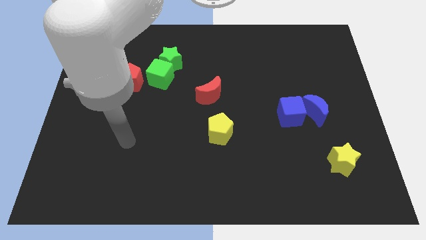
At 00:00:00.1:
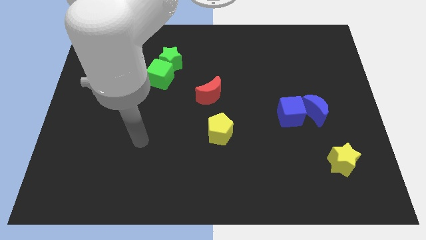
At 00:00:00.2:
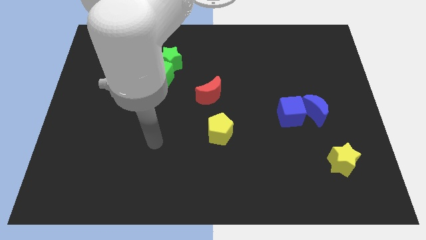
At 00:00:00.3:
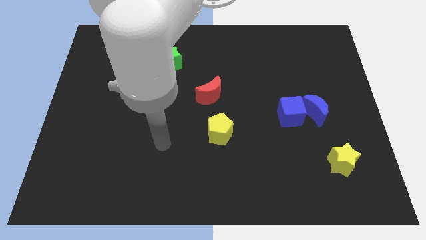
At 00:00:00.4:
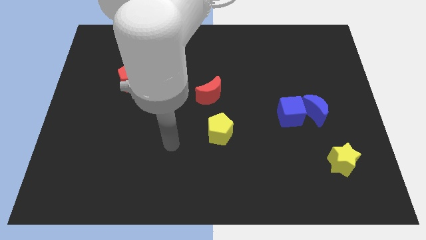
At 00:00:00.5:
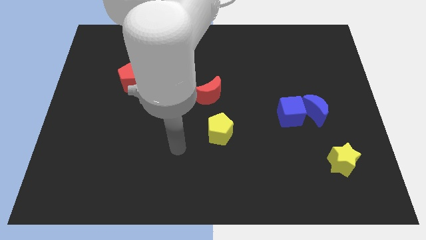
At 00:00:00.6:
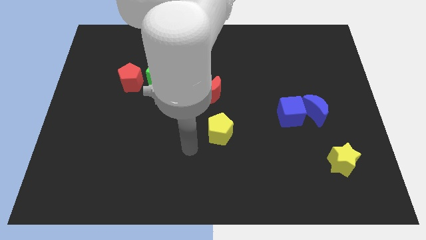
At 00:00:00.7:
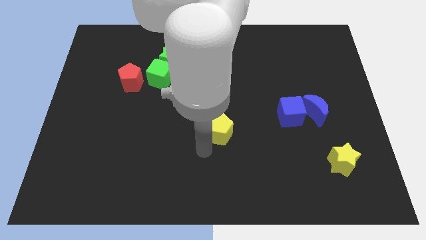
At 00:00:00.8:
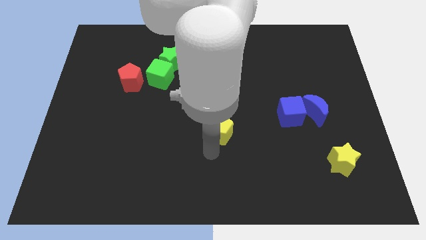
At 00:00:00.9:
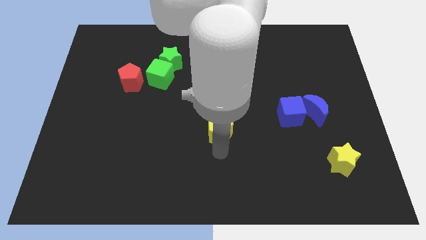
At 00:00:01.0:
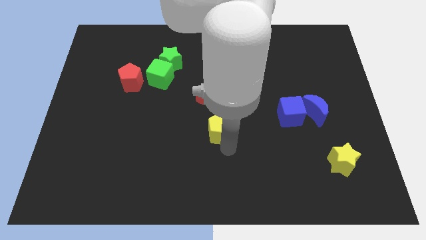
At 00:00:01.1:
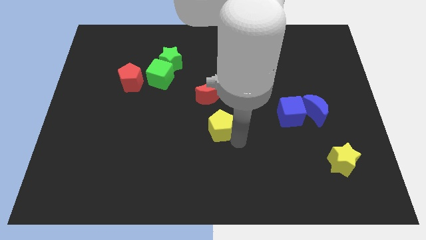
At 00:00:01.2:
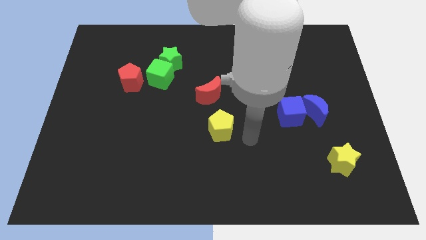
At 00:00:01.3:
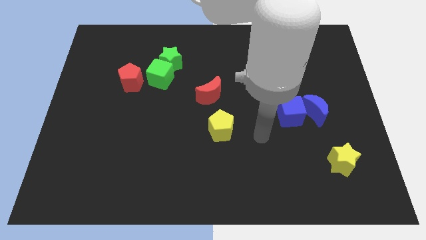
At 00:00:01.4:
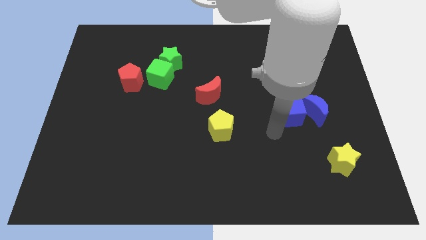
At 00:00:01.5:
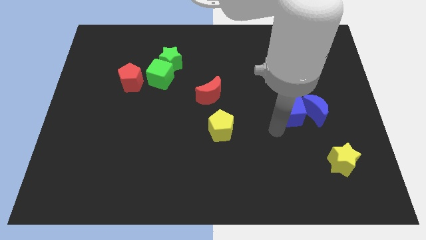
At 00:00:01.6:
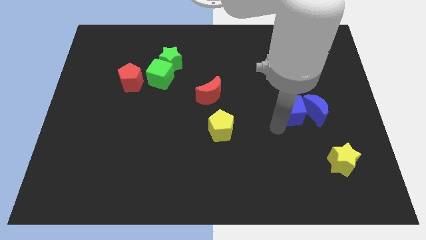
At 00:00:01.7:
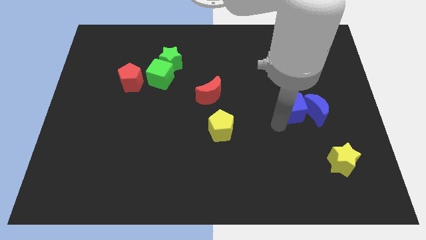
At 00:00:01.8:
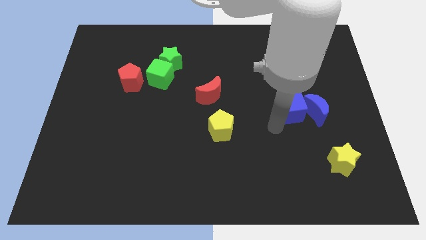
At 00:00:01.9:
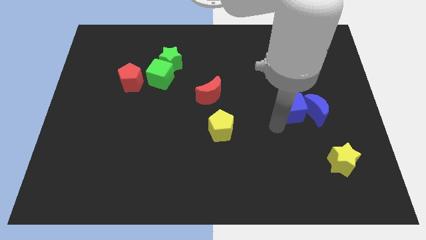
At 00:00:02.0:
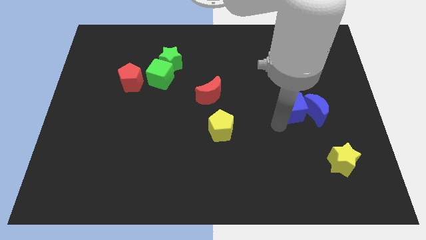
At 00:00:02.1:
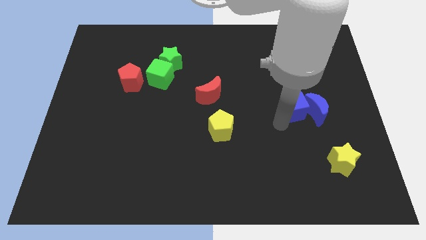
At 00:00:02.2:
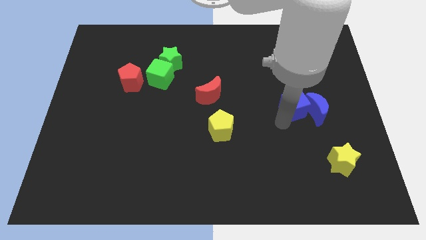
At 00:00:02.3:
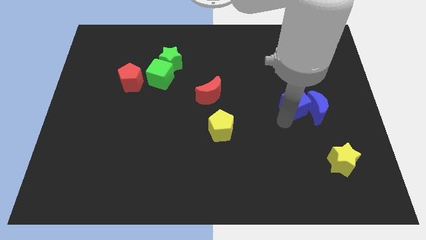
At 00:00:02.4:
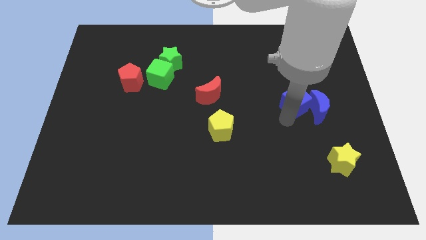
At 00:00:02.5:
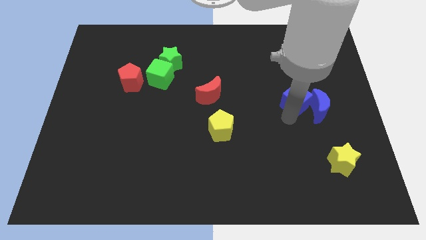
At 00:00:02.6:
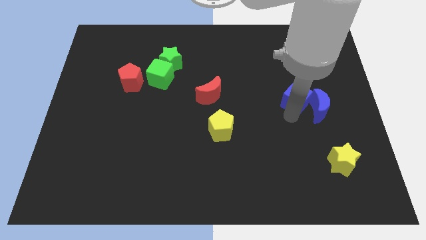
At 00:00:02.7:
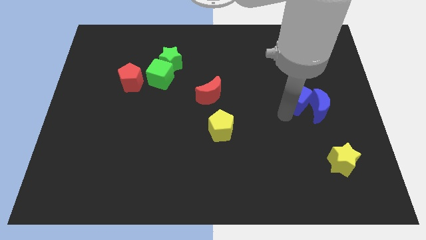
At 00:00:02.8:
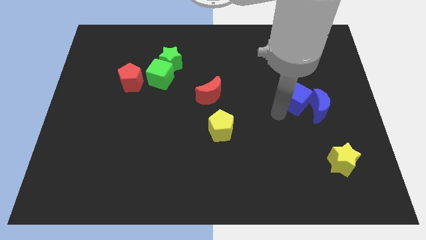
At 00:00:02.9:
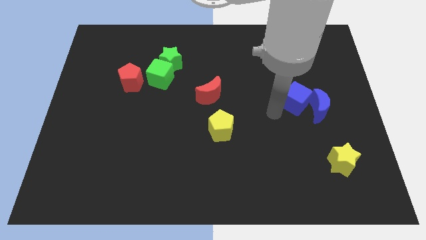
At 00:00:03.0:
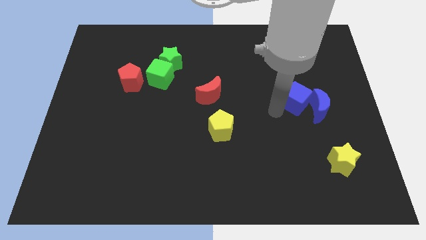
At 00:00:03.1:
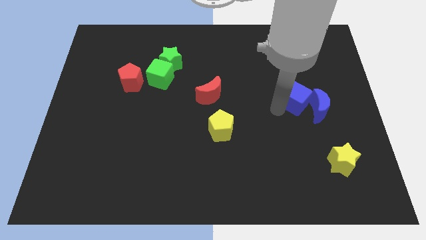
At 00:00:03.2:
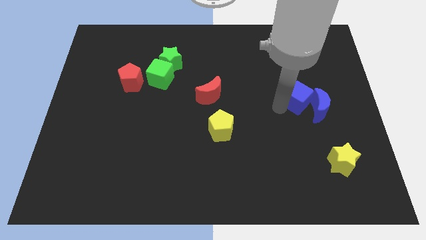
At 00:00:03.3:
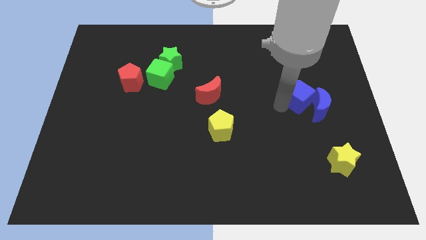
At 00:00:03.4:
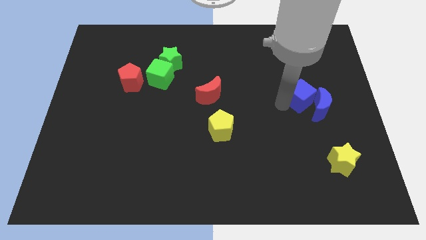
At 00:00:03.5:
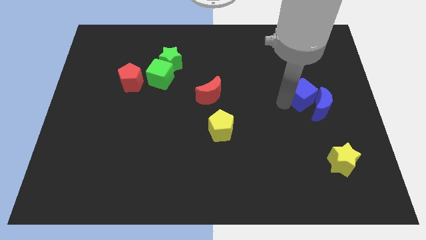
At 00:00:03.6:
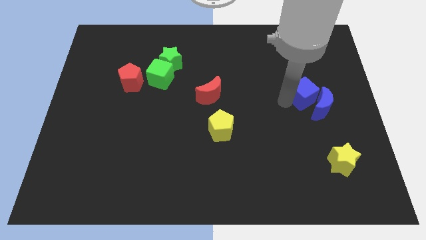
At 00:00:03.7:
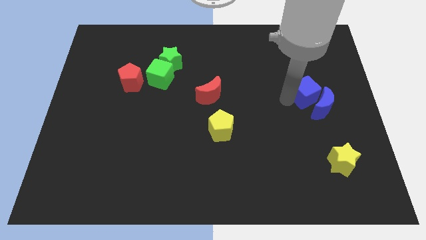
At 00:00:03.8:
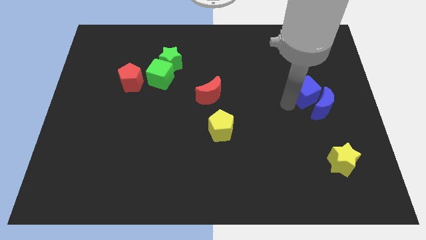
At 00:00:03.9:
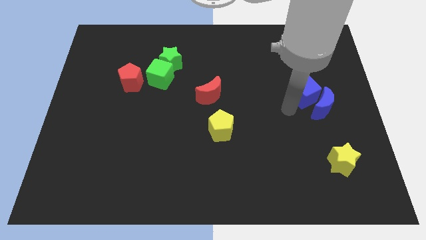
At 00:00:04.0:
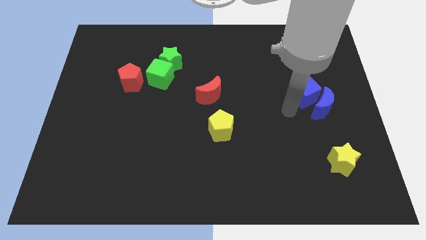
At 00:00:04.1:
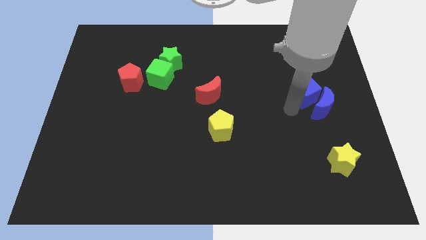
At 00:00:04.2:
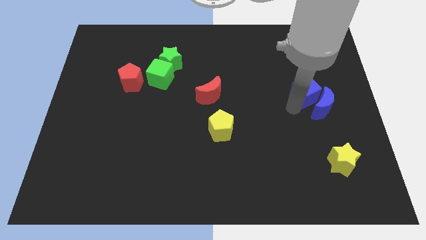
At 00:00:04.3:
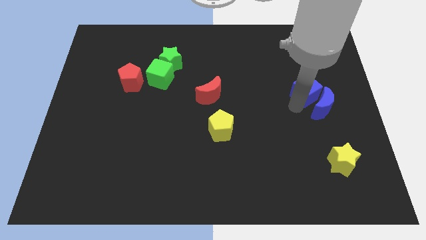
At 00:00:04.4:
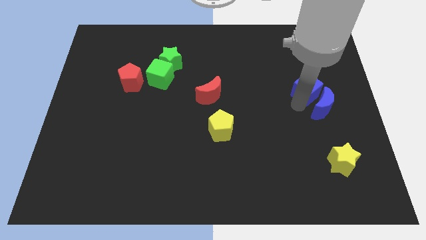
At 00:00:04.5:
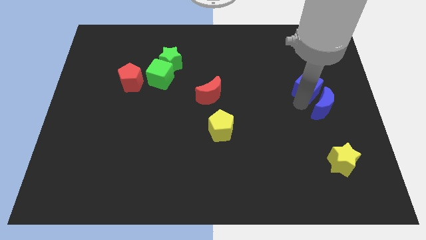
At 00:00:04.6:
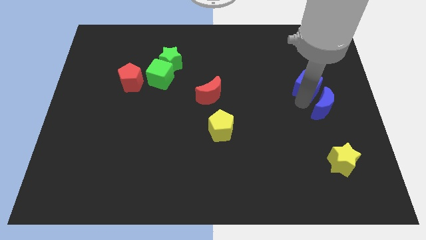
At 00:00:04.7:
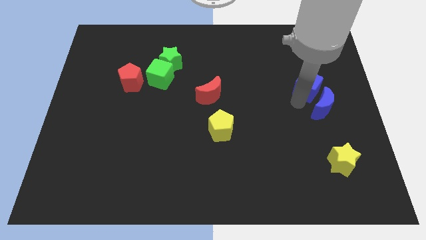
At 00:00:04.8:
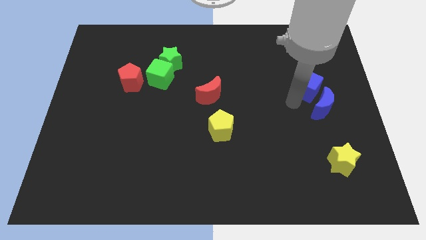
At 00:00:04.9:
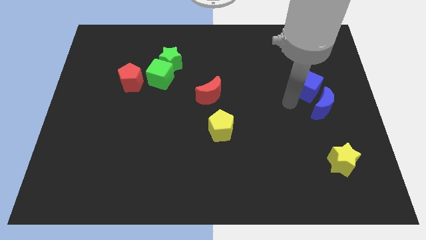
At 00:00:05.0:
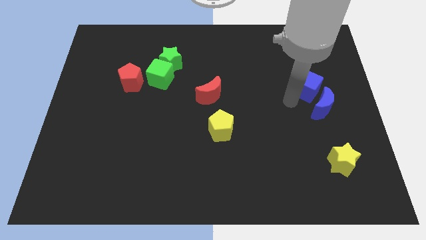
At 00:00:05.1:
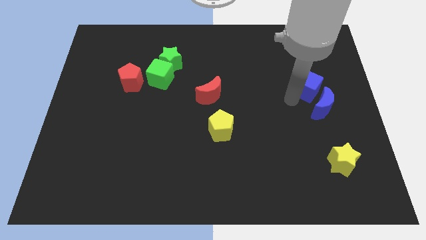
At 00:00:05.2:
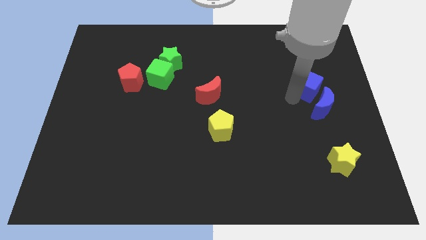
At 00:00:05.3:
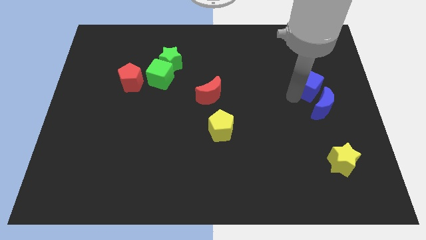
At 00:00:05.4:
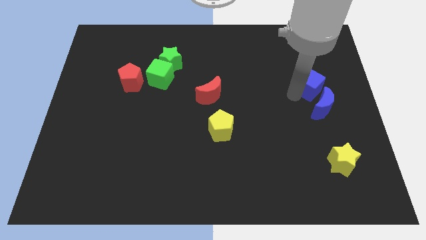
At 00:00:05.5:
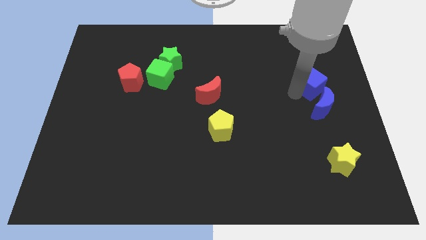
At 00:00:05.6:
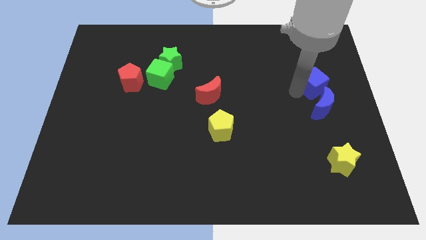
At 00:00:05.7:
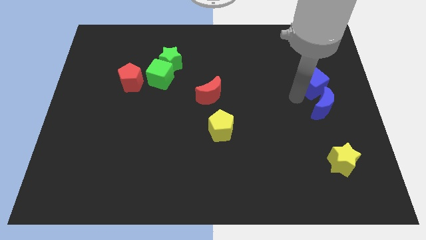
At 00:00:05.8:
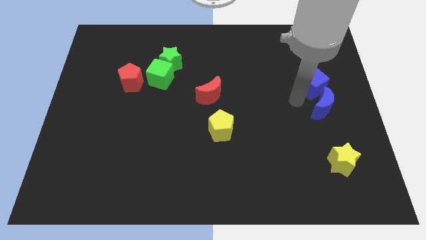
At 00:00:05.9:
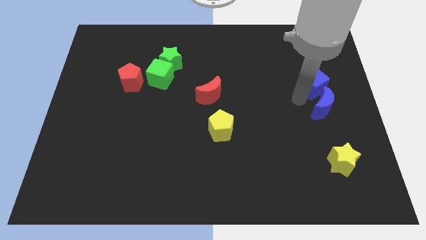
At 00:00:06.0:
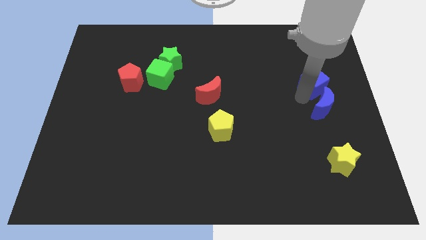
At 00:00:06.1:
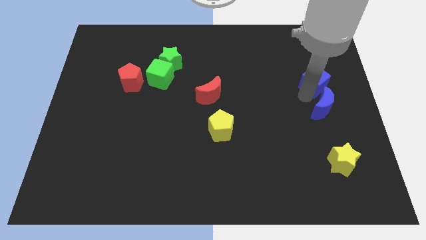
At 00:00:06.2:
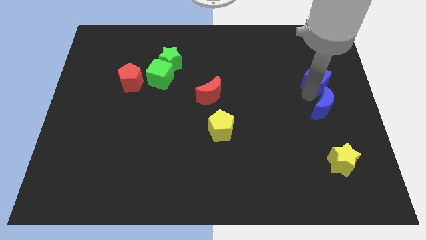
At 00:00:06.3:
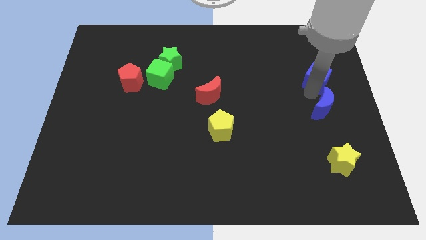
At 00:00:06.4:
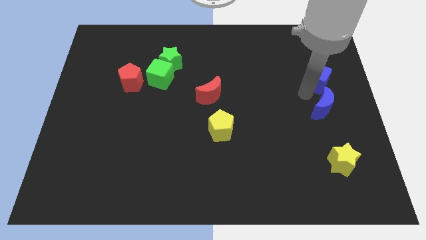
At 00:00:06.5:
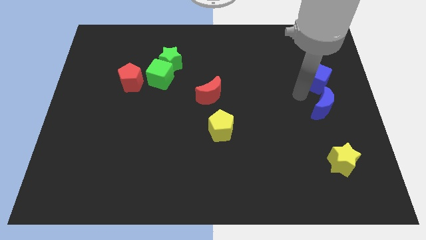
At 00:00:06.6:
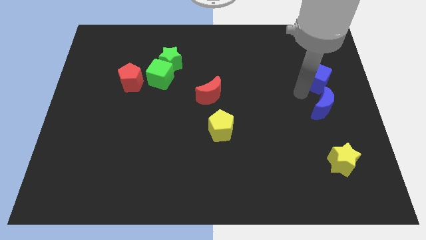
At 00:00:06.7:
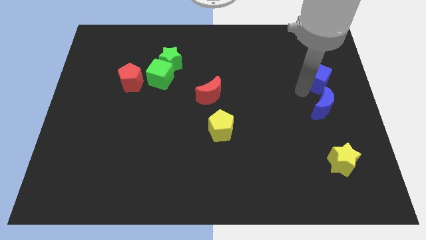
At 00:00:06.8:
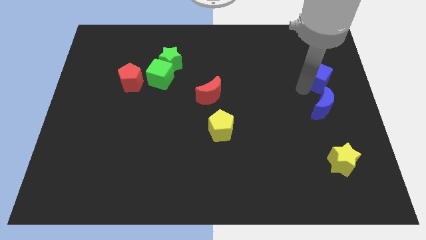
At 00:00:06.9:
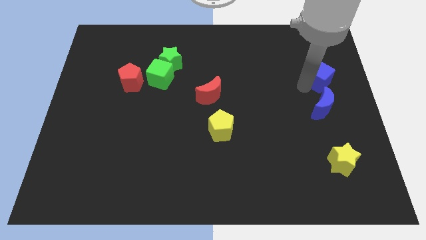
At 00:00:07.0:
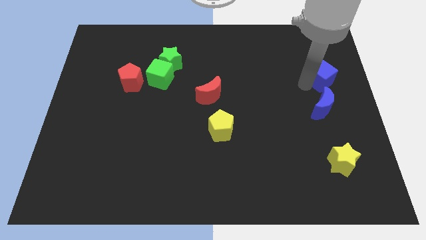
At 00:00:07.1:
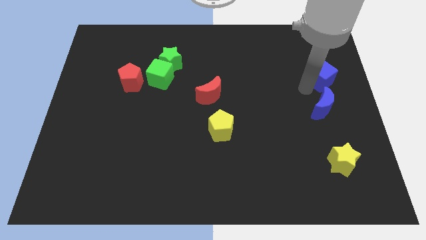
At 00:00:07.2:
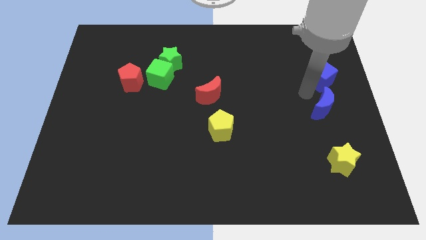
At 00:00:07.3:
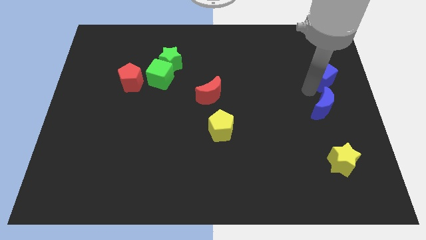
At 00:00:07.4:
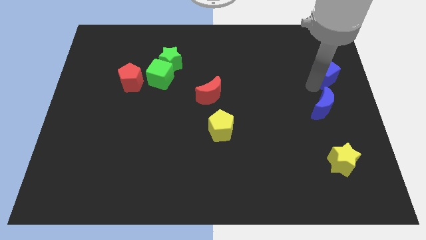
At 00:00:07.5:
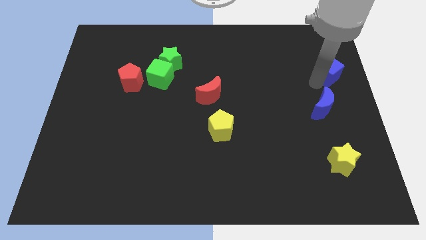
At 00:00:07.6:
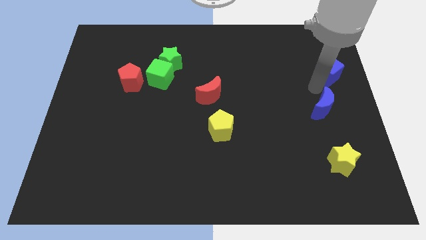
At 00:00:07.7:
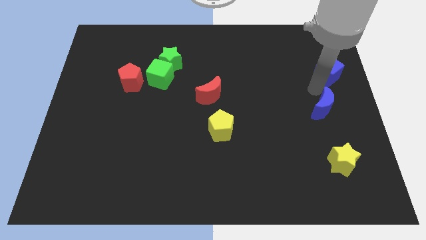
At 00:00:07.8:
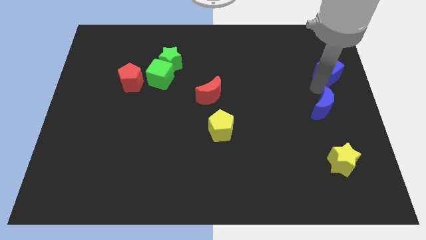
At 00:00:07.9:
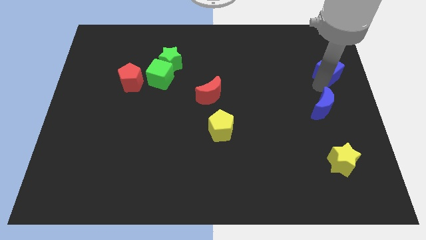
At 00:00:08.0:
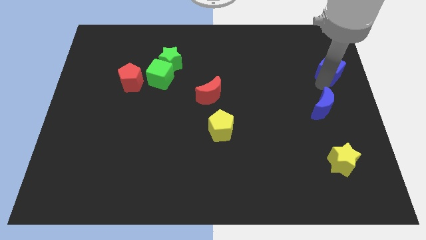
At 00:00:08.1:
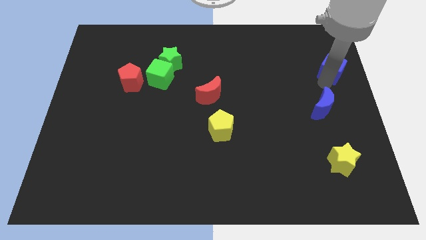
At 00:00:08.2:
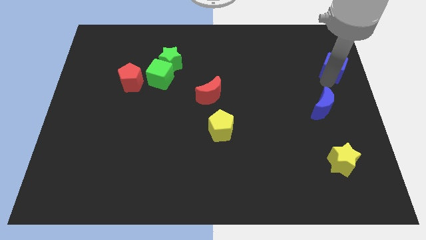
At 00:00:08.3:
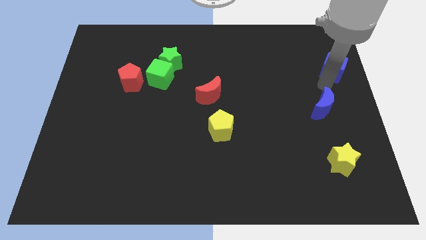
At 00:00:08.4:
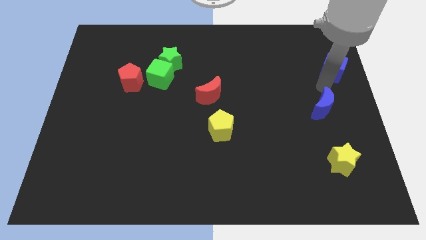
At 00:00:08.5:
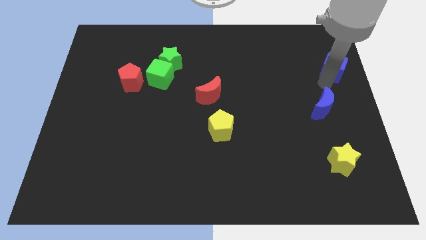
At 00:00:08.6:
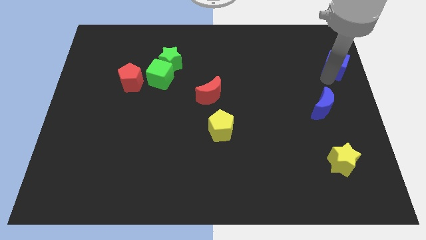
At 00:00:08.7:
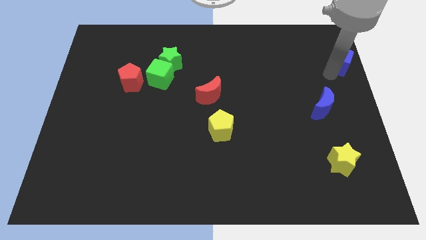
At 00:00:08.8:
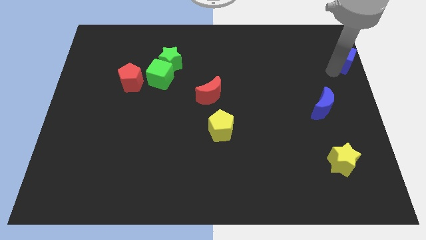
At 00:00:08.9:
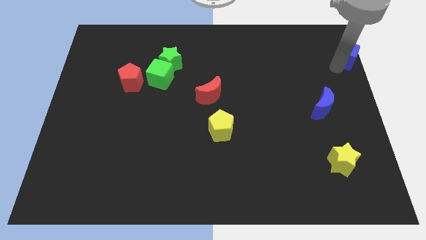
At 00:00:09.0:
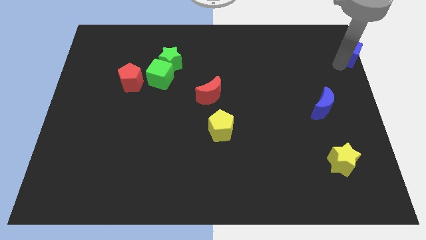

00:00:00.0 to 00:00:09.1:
move the blue cube to the top right of the board
